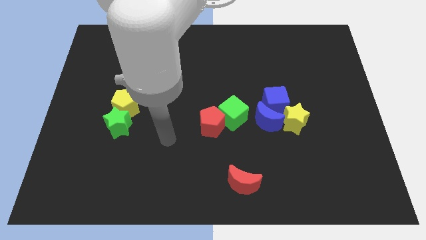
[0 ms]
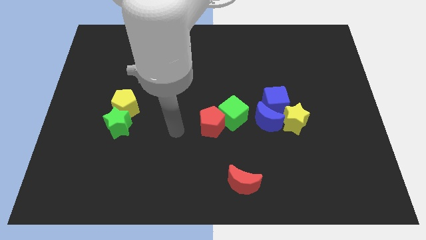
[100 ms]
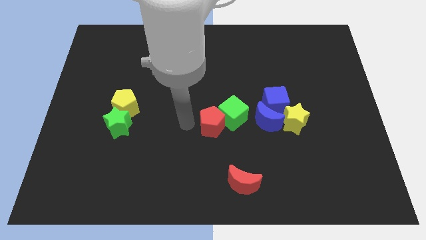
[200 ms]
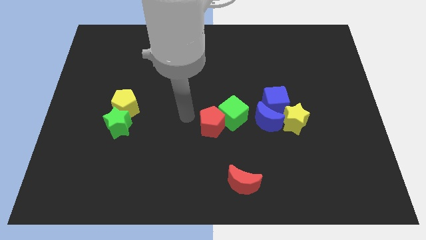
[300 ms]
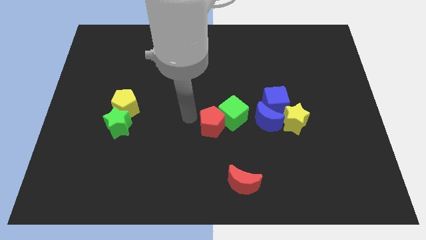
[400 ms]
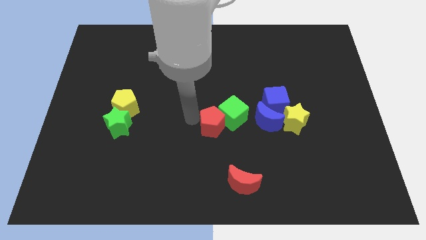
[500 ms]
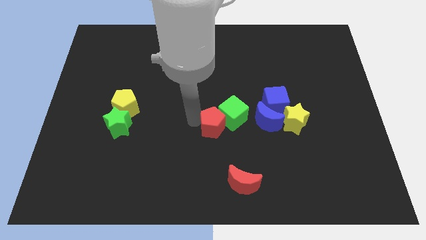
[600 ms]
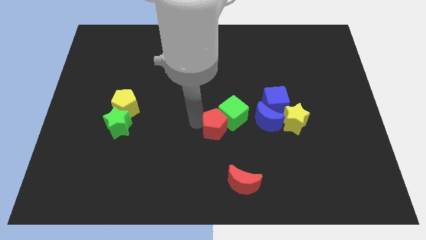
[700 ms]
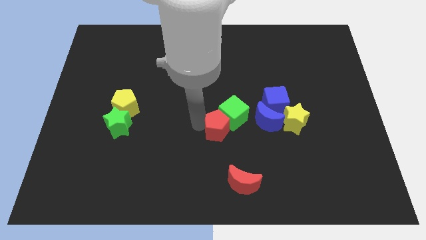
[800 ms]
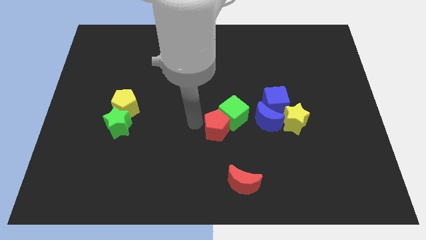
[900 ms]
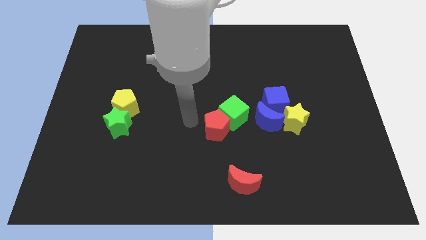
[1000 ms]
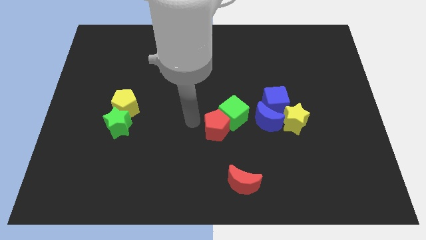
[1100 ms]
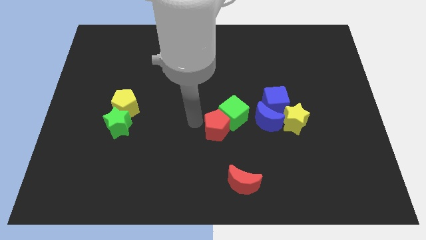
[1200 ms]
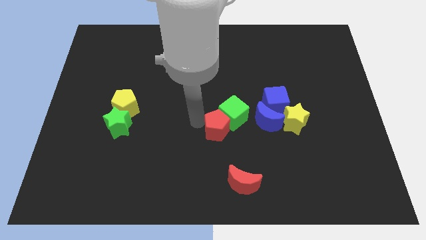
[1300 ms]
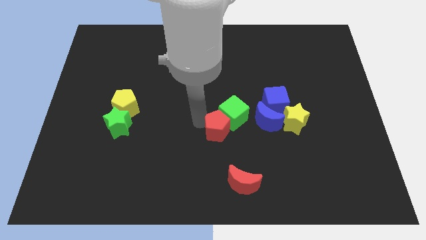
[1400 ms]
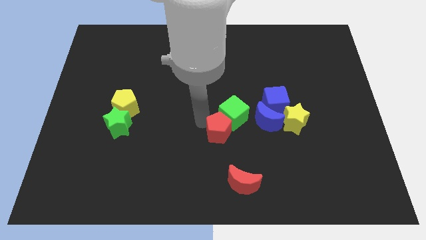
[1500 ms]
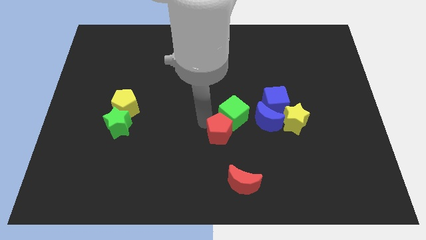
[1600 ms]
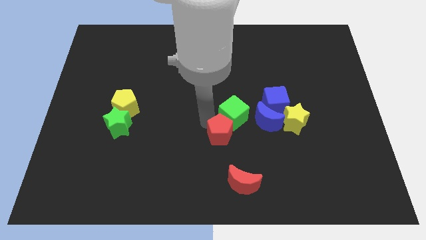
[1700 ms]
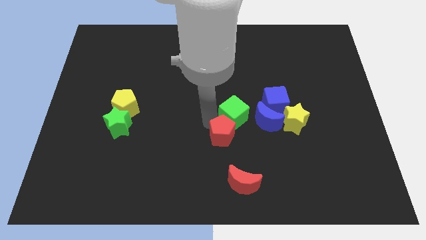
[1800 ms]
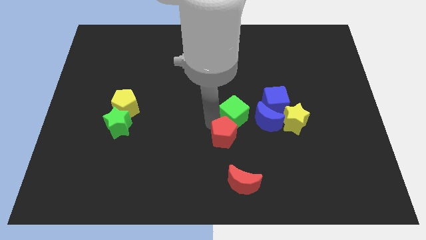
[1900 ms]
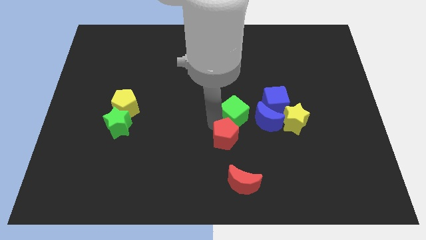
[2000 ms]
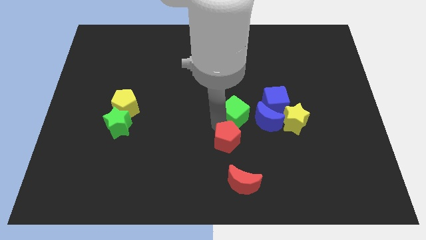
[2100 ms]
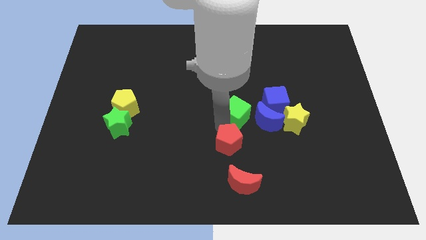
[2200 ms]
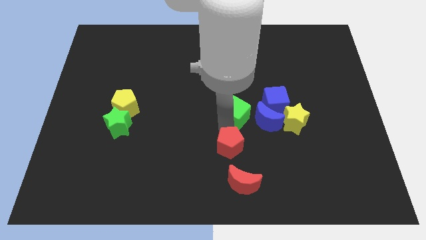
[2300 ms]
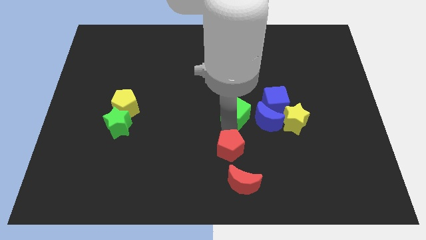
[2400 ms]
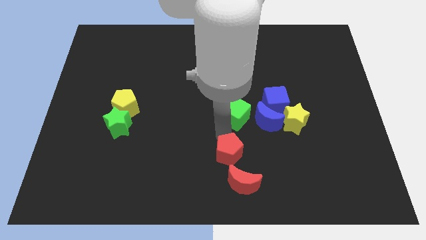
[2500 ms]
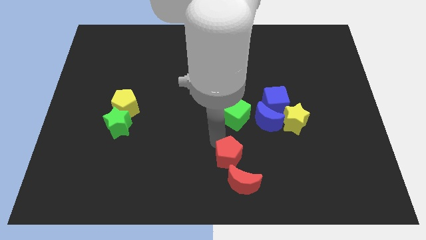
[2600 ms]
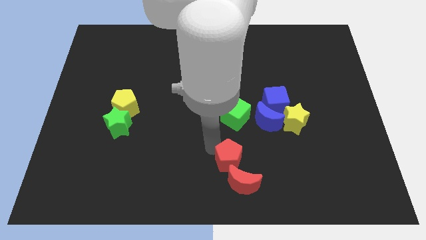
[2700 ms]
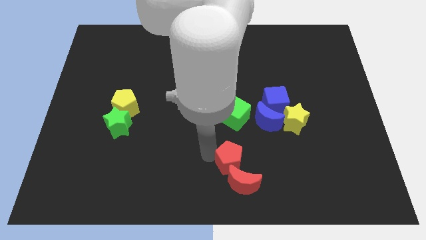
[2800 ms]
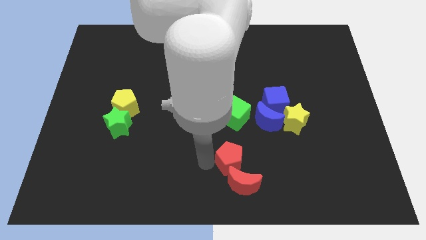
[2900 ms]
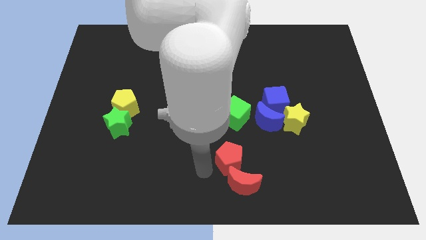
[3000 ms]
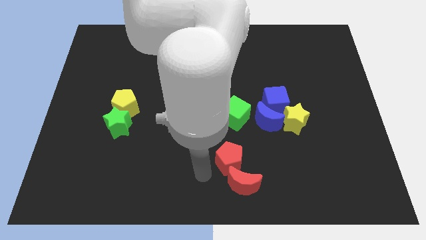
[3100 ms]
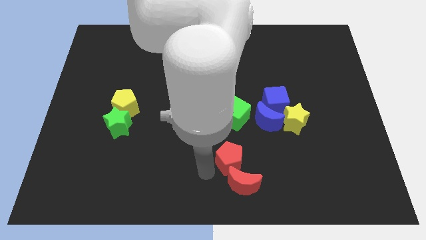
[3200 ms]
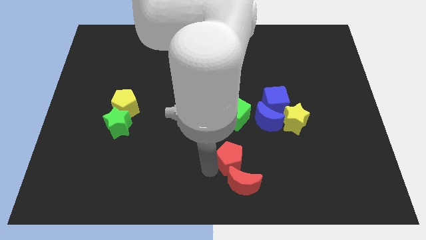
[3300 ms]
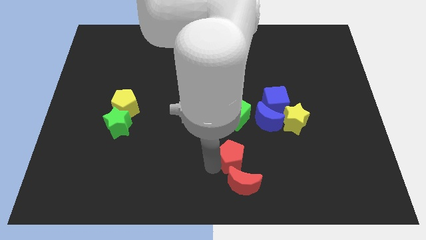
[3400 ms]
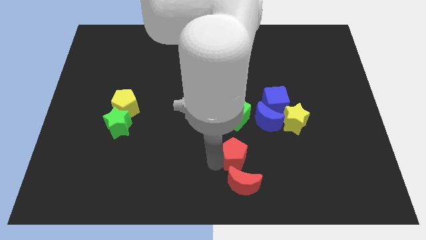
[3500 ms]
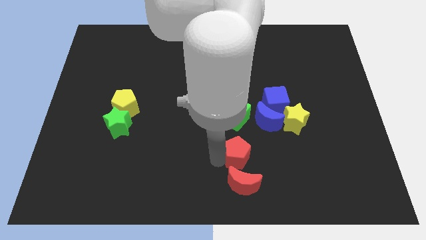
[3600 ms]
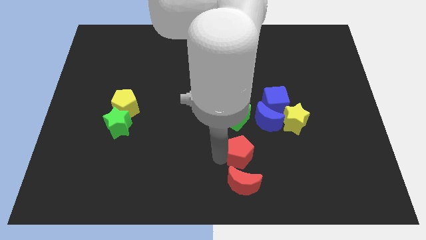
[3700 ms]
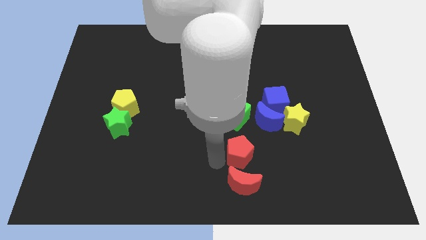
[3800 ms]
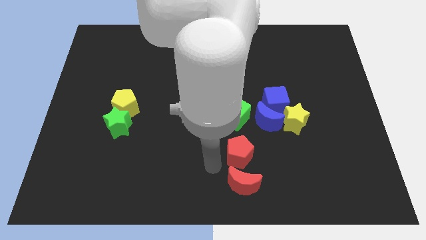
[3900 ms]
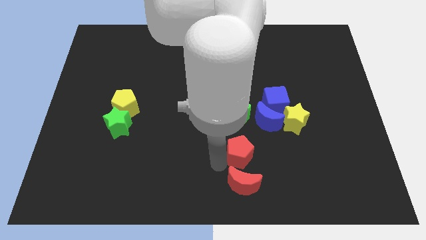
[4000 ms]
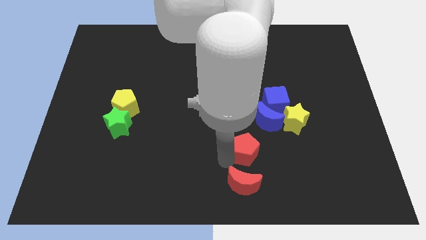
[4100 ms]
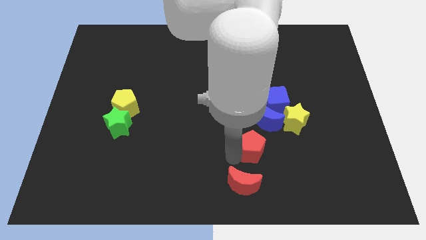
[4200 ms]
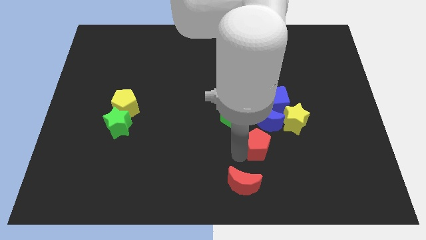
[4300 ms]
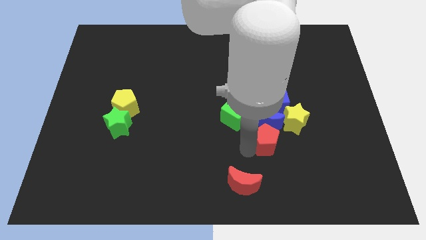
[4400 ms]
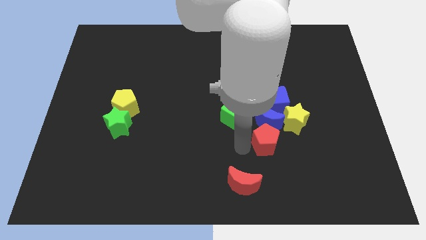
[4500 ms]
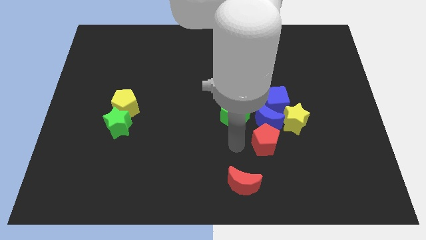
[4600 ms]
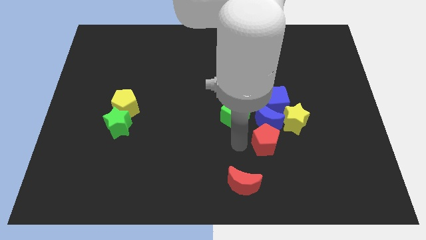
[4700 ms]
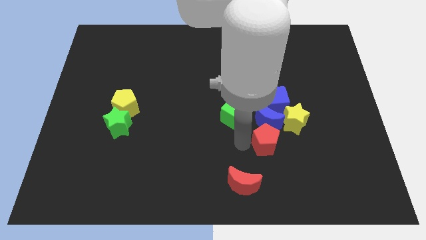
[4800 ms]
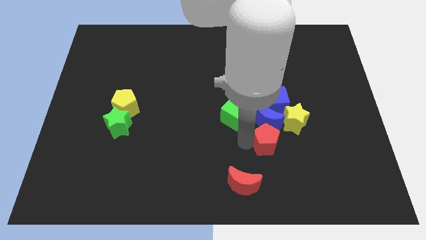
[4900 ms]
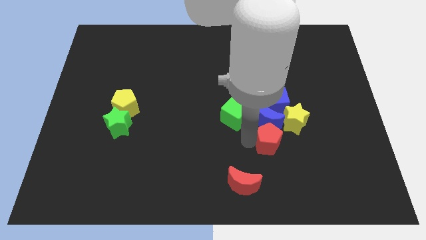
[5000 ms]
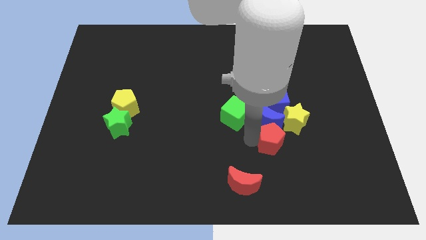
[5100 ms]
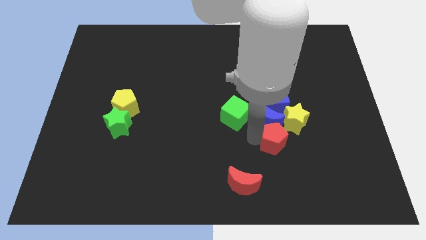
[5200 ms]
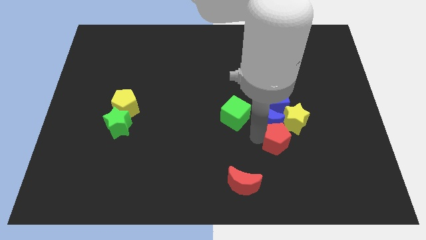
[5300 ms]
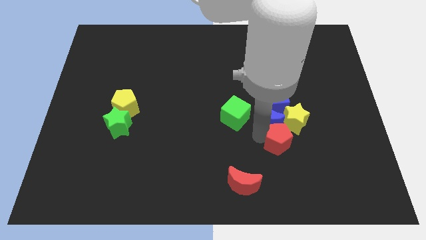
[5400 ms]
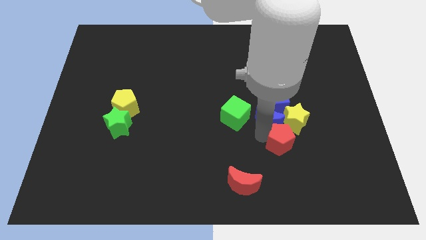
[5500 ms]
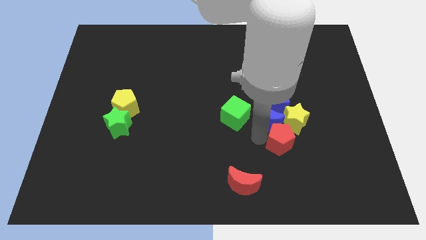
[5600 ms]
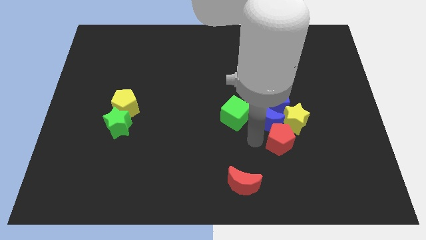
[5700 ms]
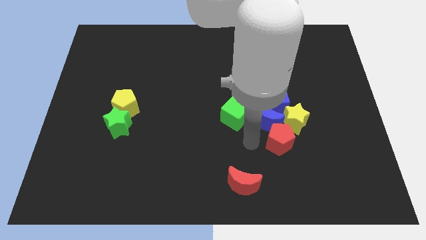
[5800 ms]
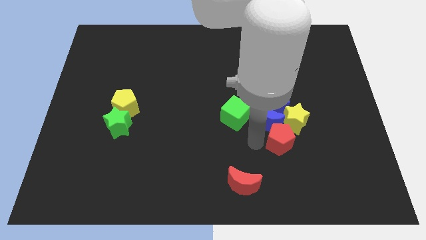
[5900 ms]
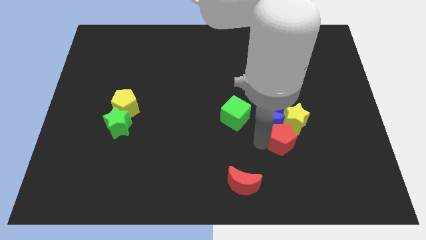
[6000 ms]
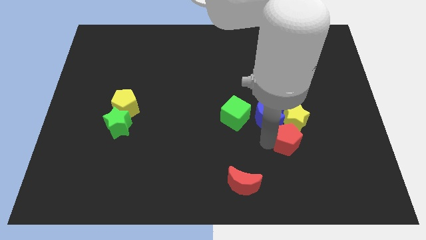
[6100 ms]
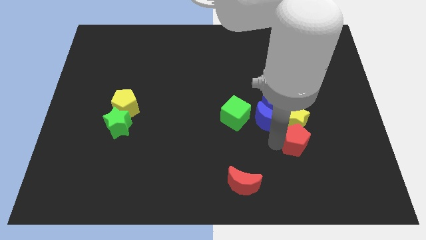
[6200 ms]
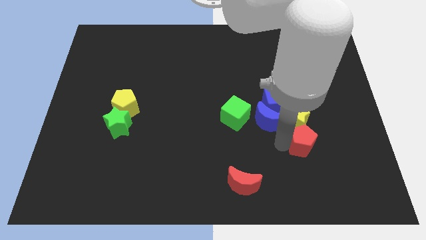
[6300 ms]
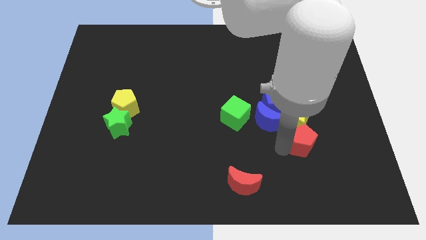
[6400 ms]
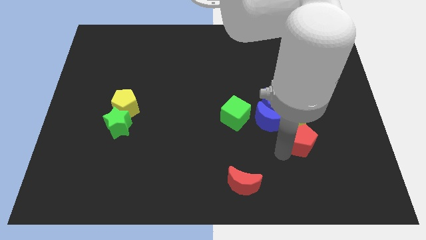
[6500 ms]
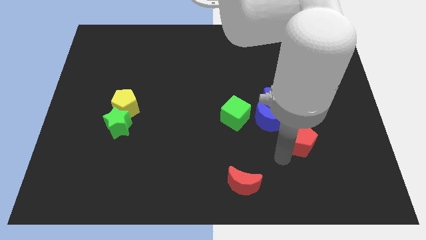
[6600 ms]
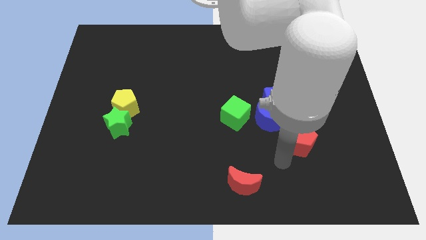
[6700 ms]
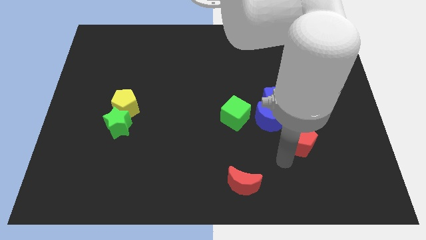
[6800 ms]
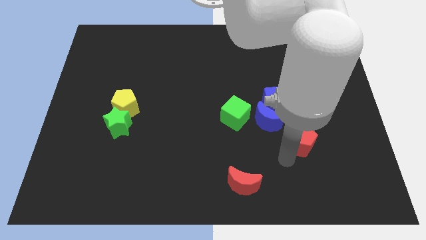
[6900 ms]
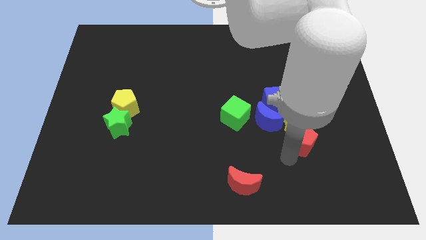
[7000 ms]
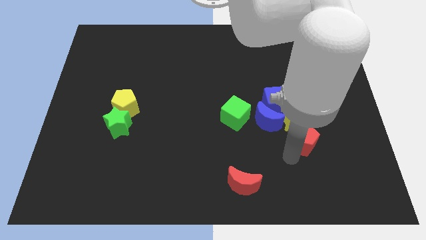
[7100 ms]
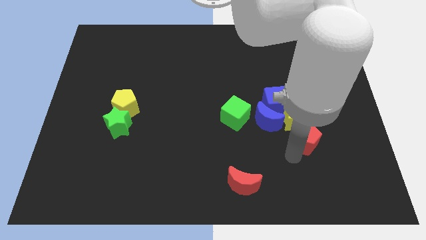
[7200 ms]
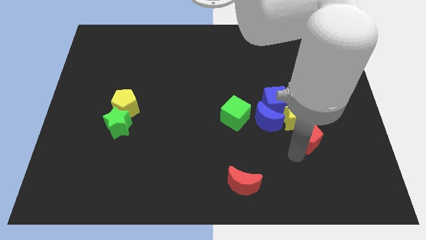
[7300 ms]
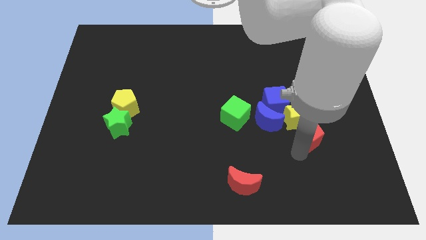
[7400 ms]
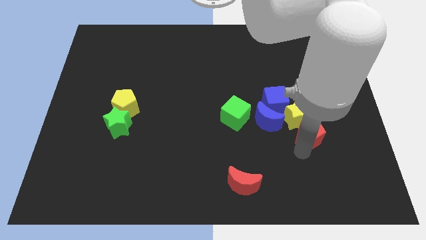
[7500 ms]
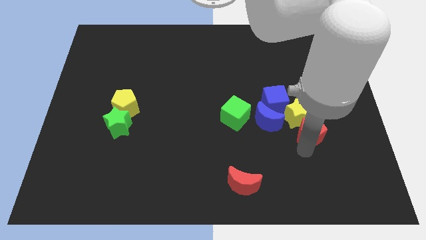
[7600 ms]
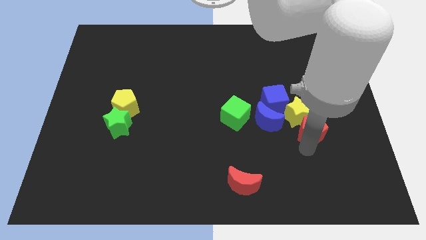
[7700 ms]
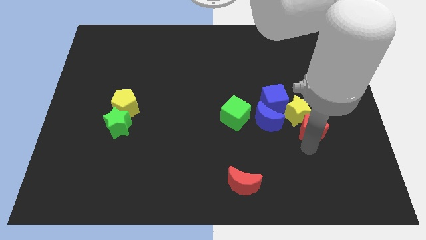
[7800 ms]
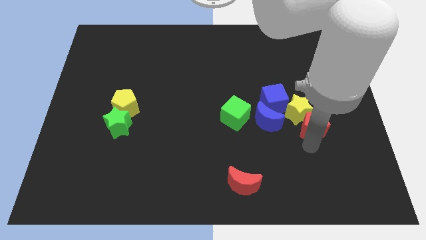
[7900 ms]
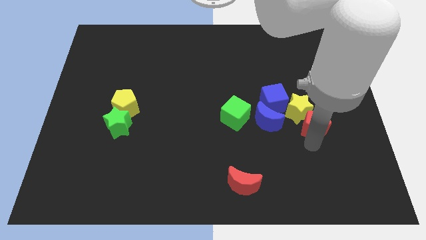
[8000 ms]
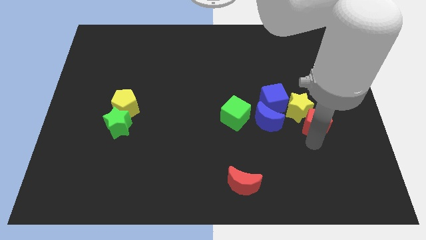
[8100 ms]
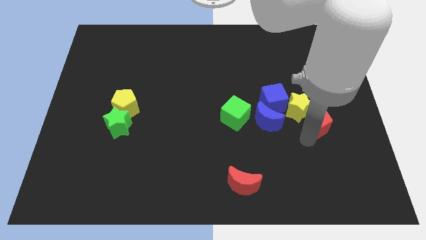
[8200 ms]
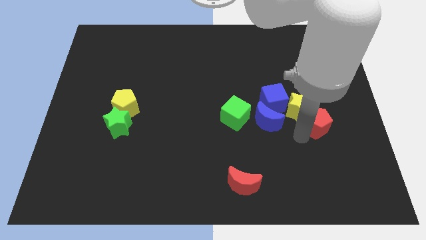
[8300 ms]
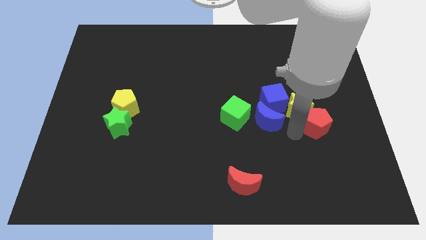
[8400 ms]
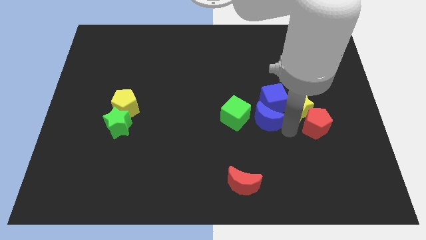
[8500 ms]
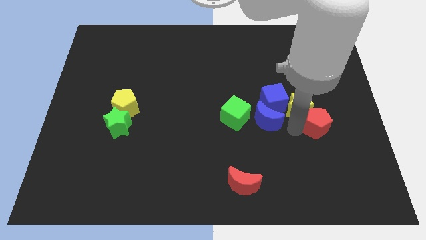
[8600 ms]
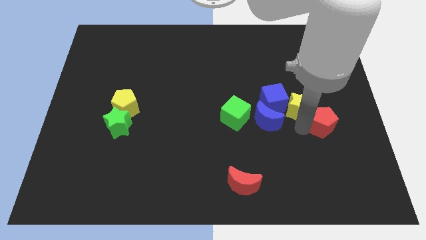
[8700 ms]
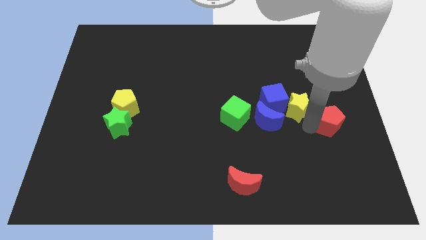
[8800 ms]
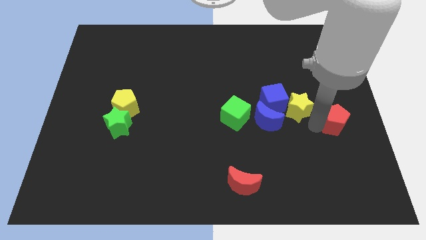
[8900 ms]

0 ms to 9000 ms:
put the red pentagon to the center right
